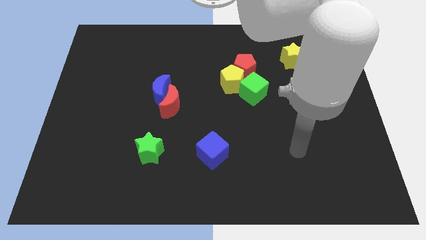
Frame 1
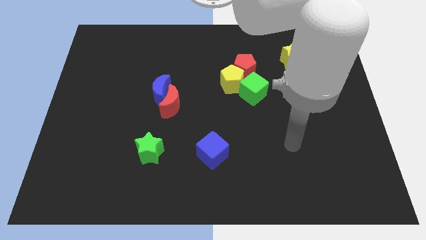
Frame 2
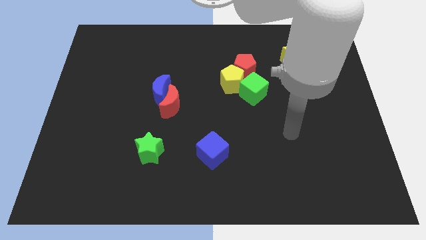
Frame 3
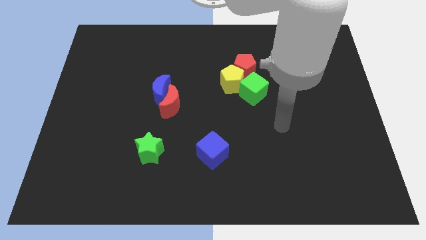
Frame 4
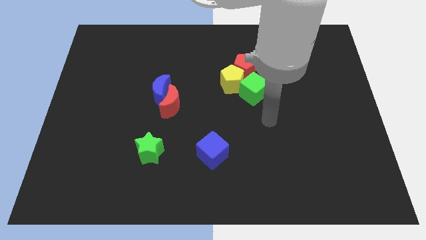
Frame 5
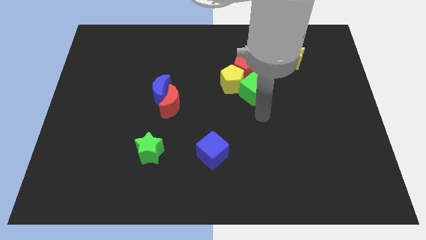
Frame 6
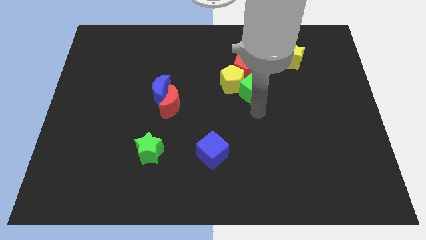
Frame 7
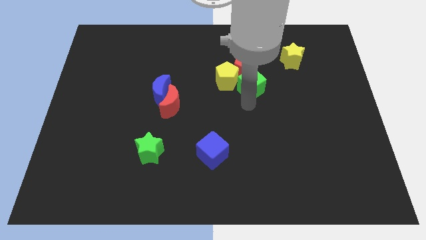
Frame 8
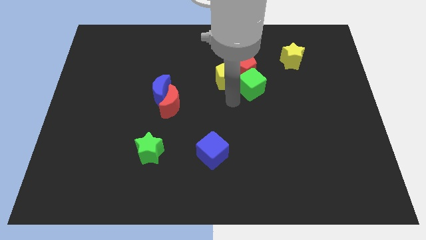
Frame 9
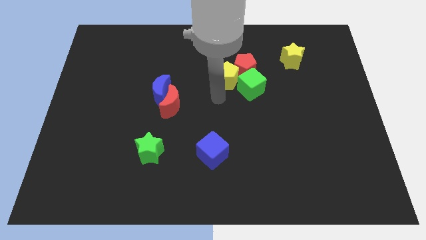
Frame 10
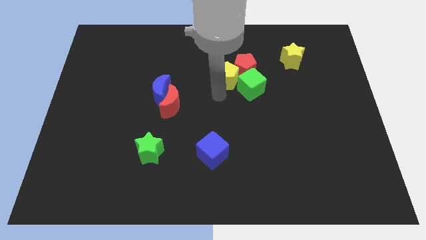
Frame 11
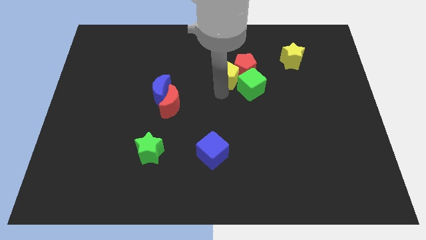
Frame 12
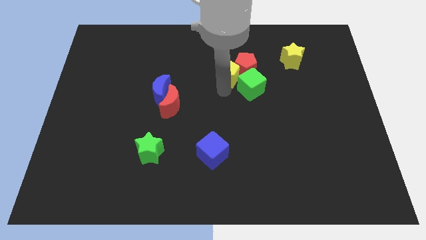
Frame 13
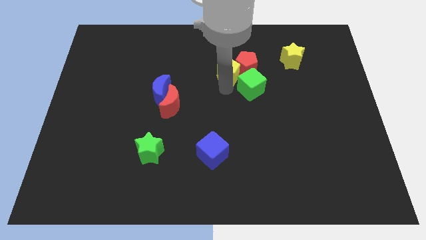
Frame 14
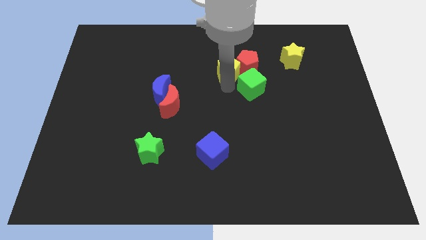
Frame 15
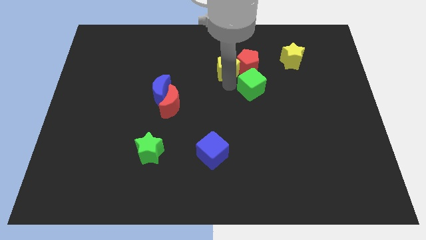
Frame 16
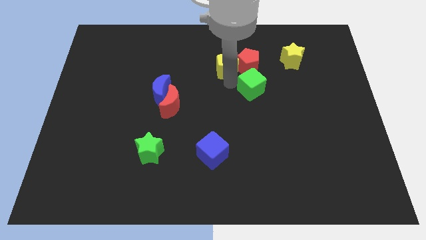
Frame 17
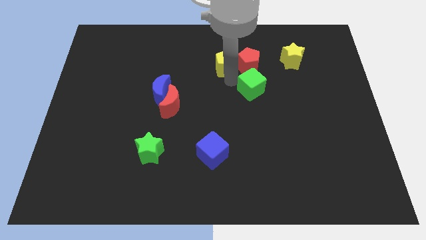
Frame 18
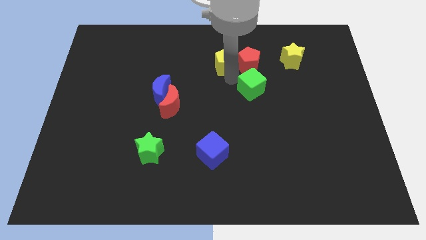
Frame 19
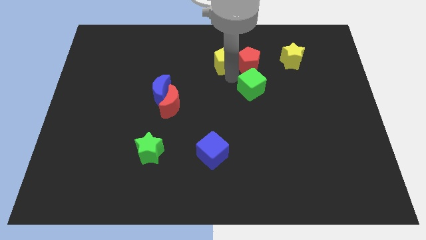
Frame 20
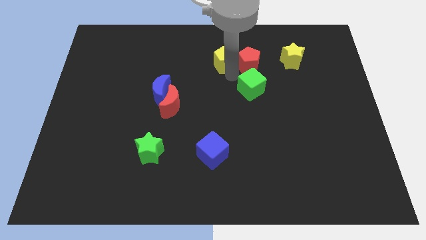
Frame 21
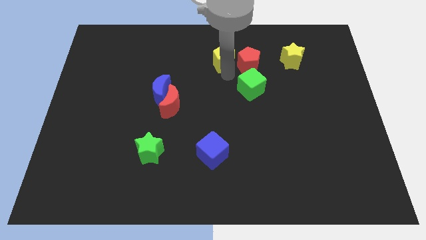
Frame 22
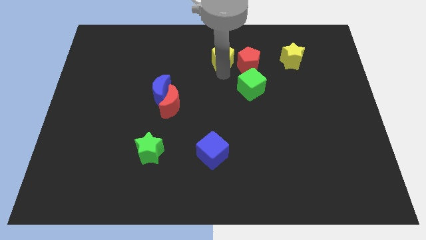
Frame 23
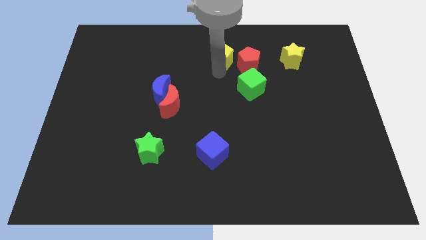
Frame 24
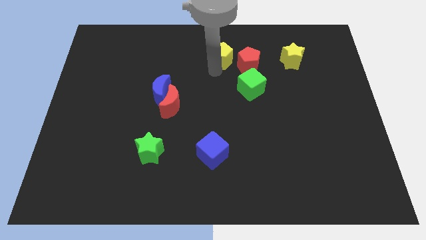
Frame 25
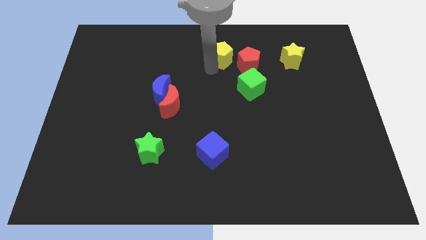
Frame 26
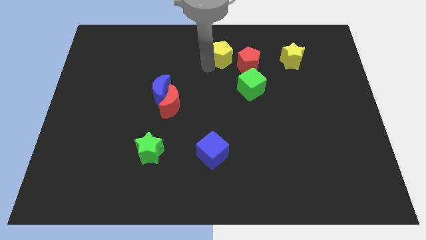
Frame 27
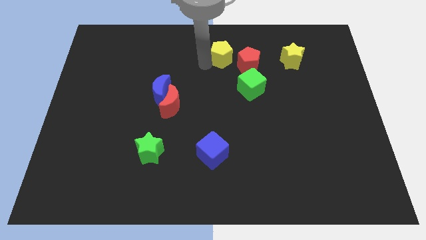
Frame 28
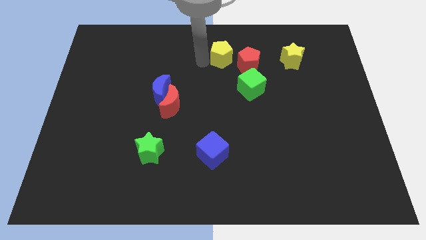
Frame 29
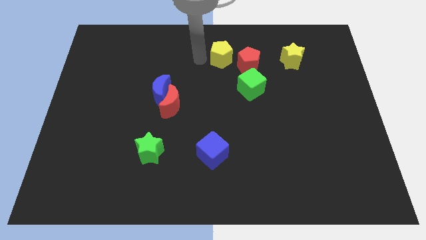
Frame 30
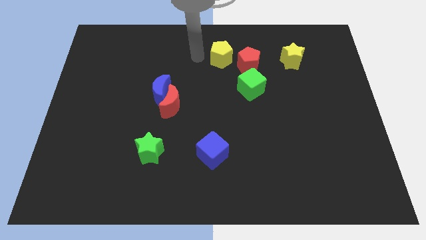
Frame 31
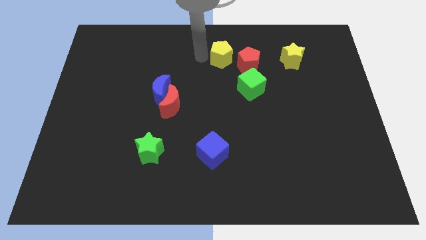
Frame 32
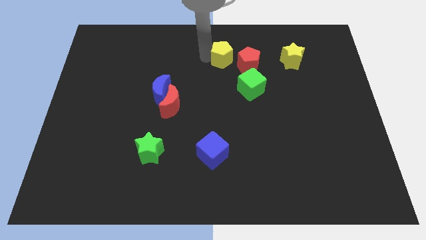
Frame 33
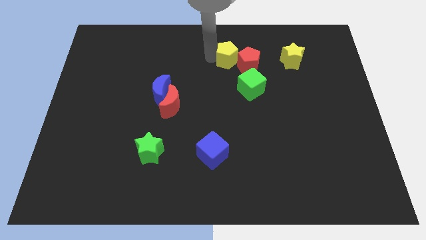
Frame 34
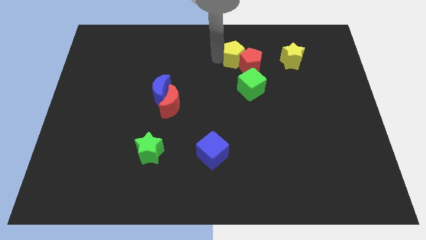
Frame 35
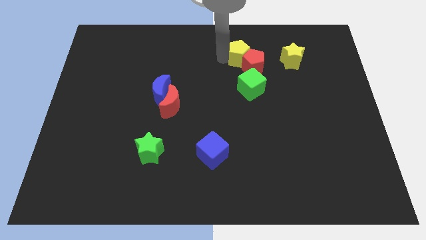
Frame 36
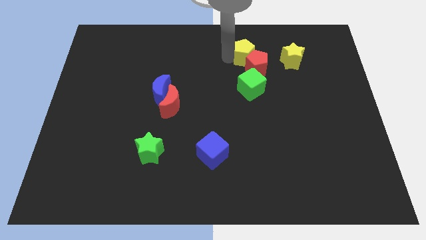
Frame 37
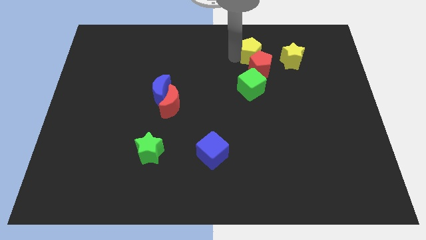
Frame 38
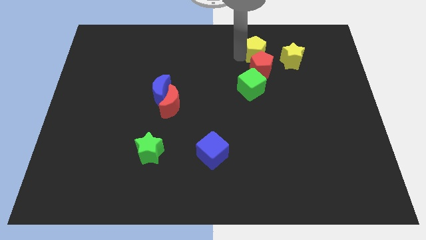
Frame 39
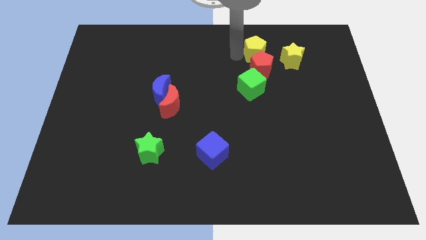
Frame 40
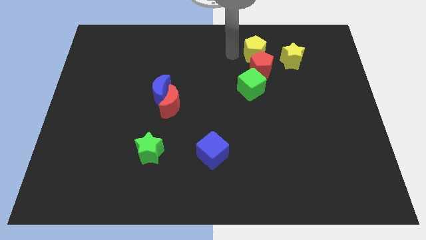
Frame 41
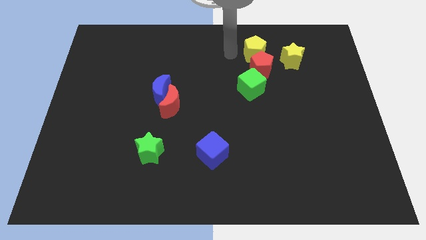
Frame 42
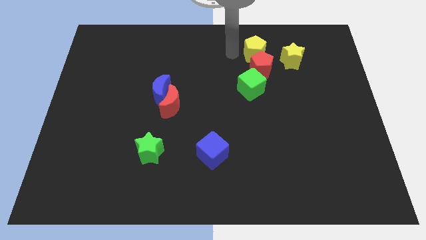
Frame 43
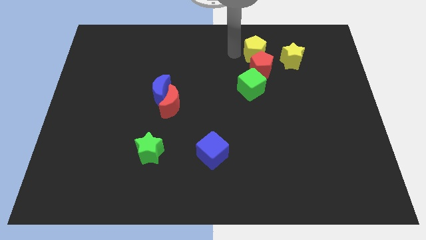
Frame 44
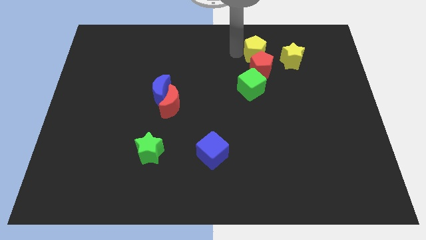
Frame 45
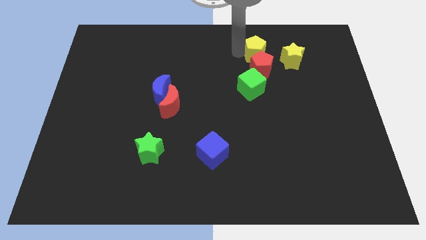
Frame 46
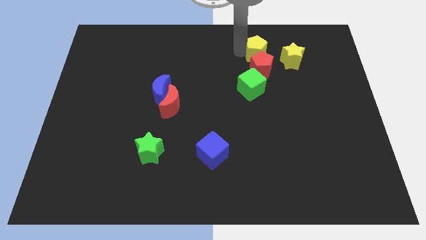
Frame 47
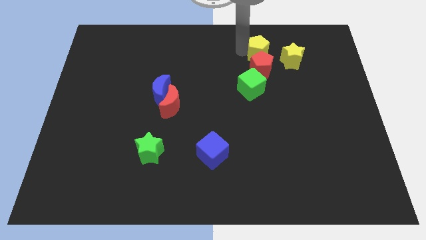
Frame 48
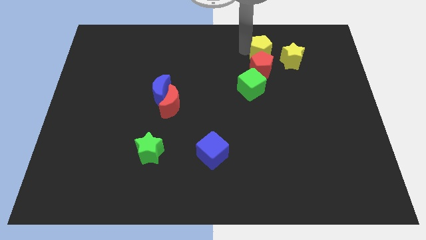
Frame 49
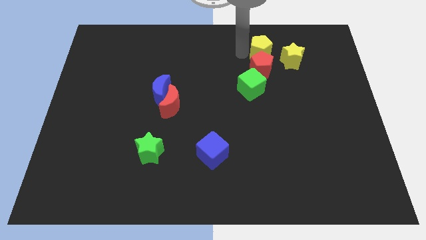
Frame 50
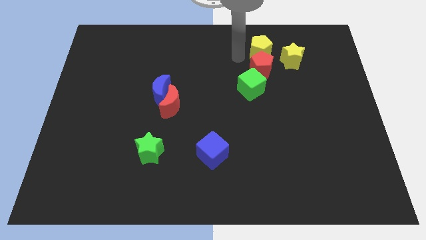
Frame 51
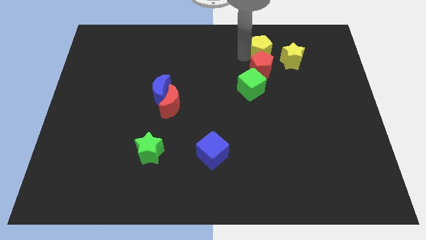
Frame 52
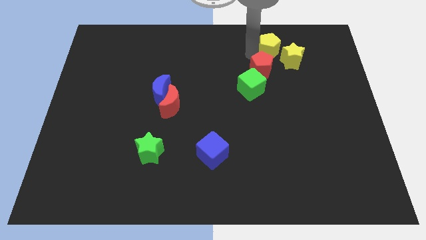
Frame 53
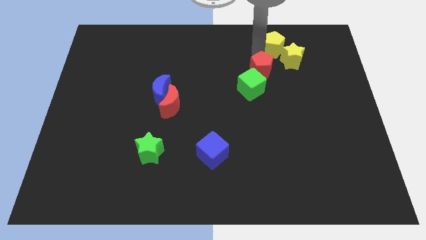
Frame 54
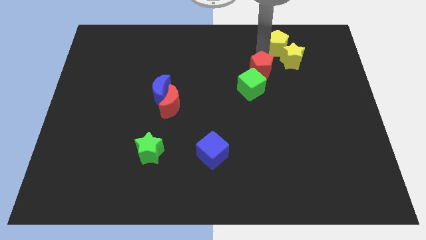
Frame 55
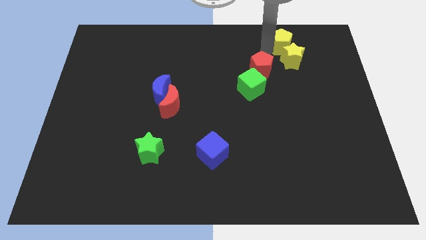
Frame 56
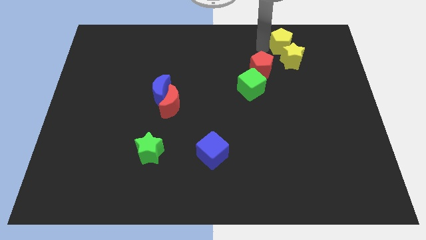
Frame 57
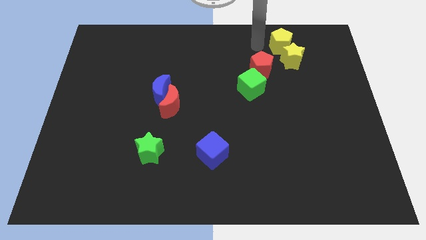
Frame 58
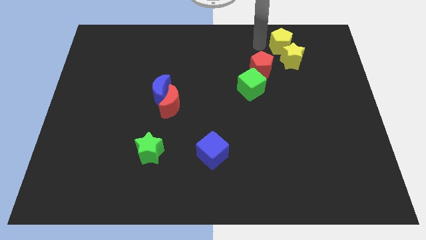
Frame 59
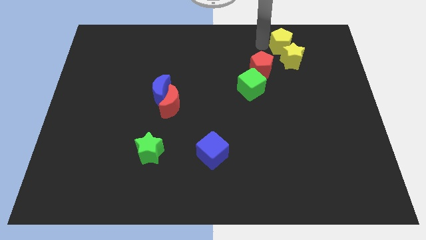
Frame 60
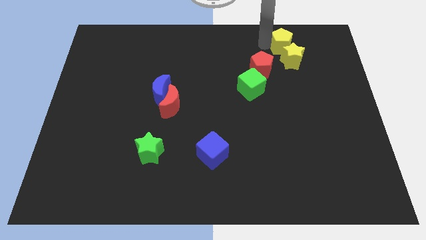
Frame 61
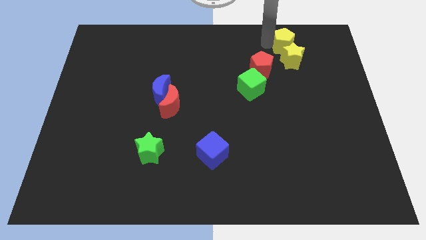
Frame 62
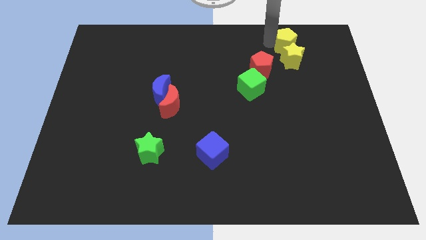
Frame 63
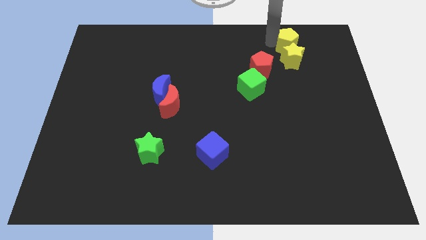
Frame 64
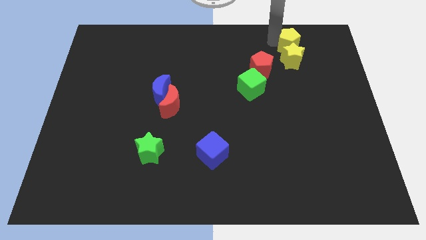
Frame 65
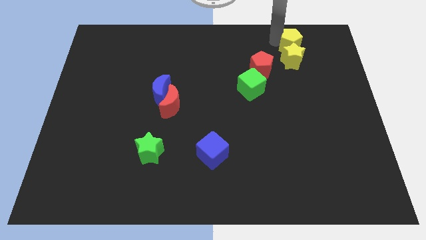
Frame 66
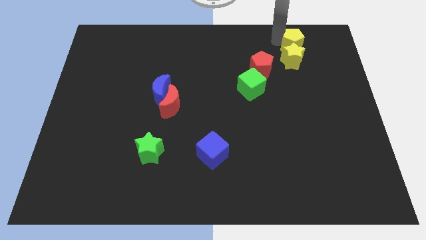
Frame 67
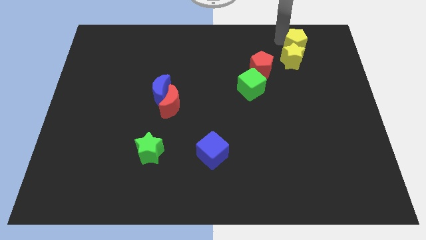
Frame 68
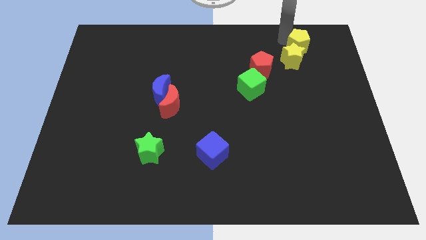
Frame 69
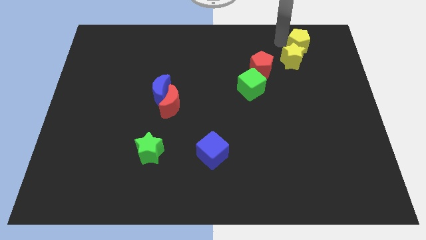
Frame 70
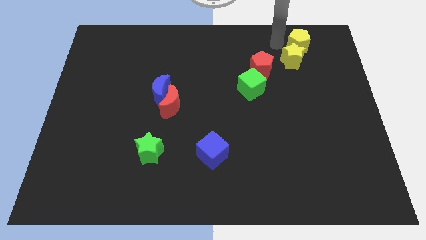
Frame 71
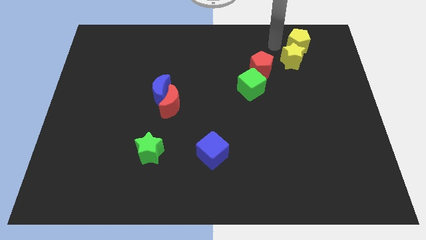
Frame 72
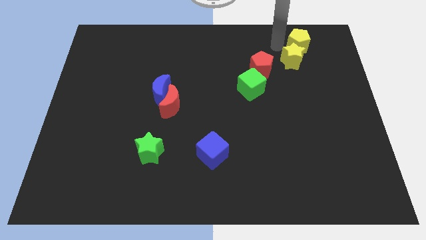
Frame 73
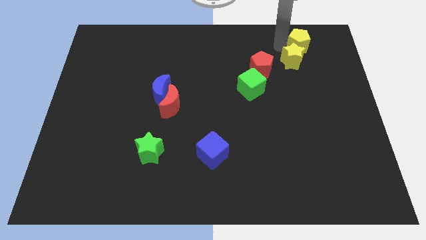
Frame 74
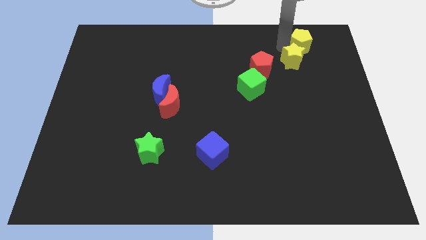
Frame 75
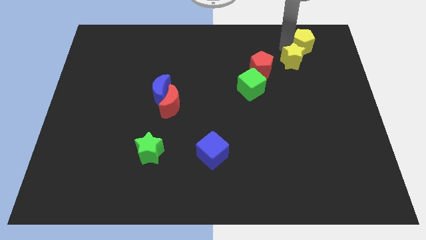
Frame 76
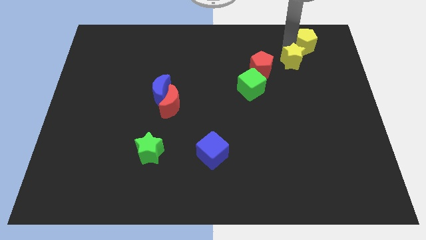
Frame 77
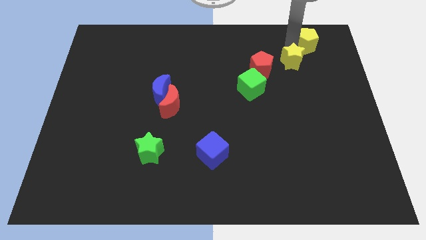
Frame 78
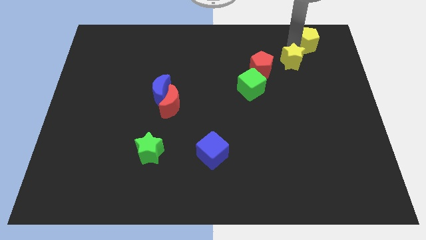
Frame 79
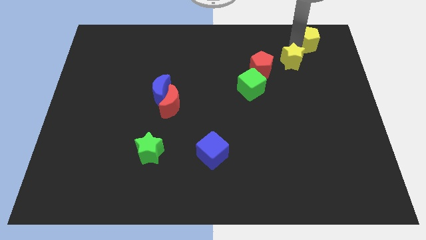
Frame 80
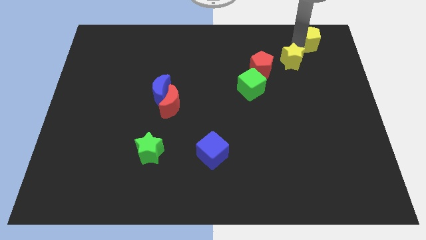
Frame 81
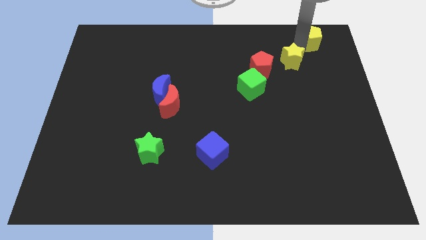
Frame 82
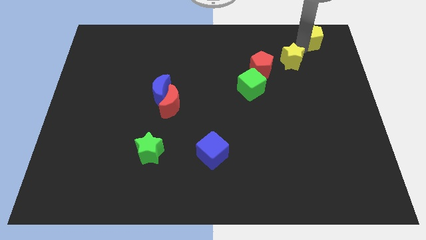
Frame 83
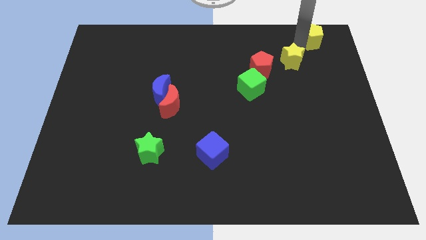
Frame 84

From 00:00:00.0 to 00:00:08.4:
put the yellow pentagon to the top right corner
